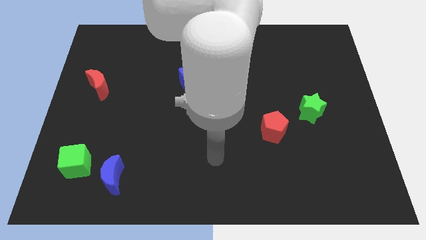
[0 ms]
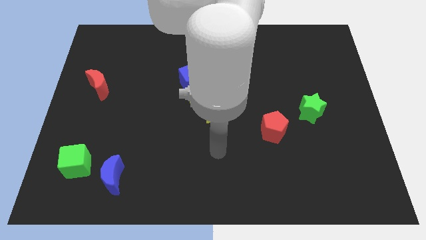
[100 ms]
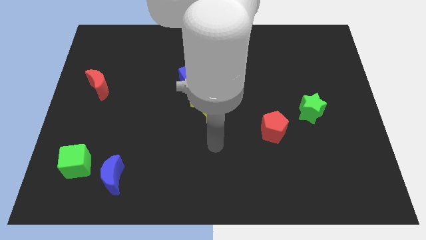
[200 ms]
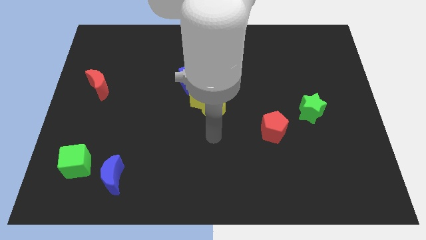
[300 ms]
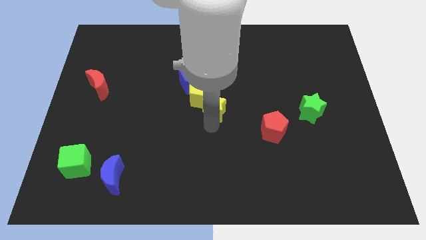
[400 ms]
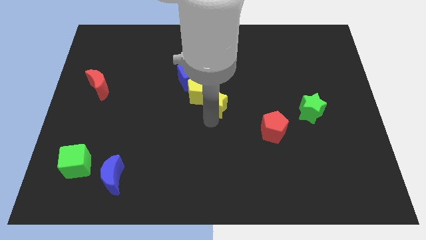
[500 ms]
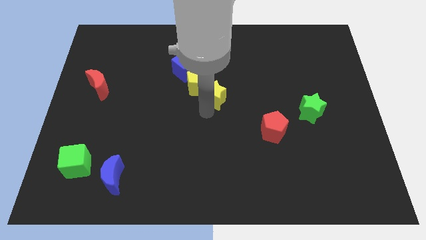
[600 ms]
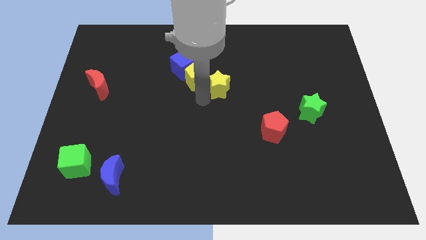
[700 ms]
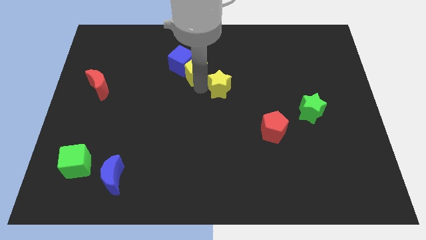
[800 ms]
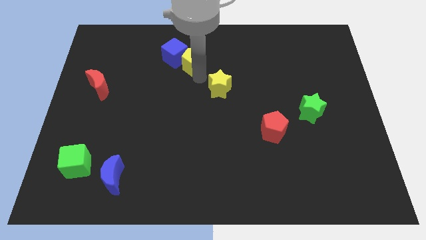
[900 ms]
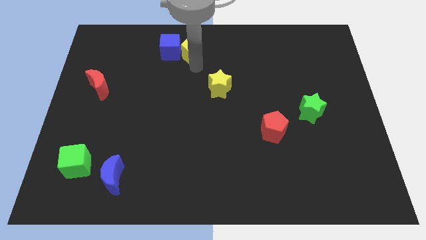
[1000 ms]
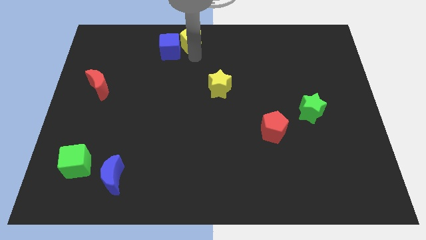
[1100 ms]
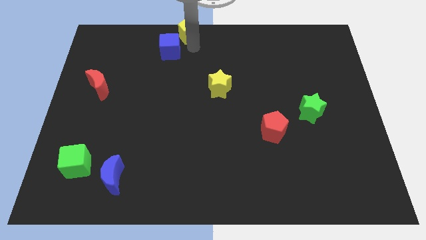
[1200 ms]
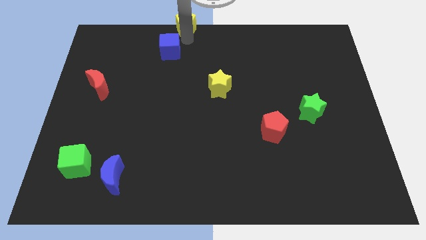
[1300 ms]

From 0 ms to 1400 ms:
pull the blue cube apart from the yellow pentagon

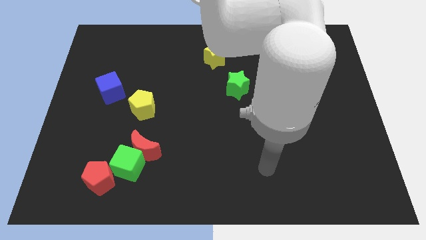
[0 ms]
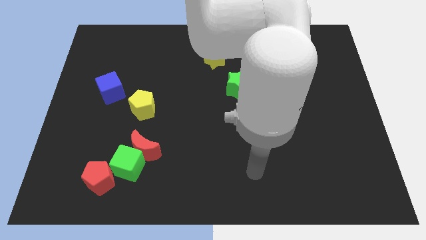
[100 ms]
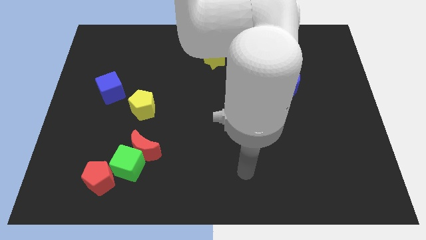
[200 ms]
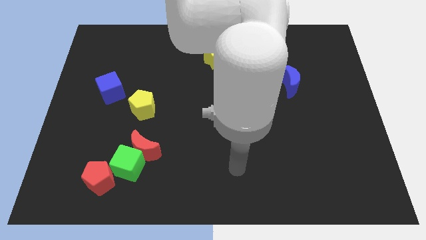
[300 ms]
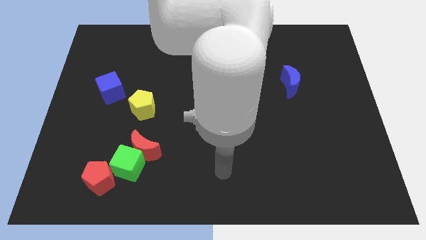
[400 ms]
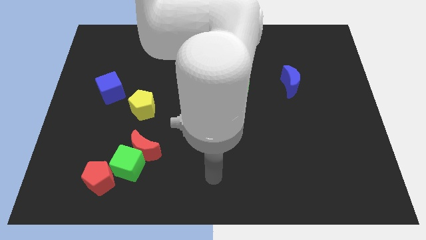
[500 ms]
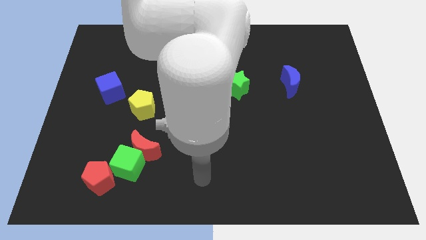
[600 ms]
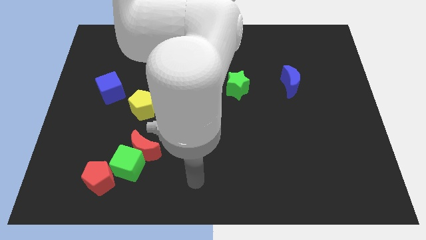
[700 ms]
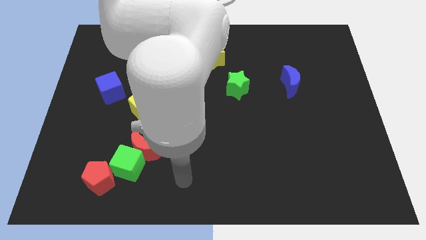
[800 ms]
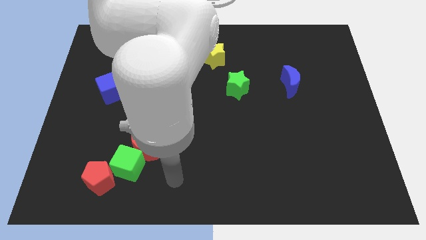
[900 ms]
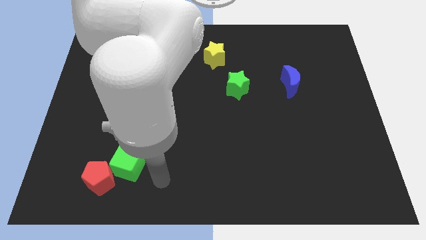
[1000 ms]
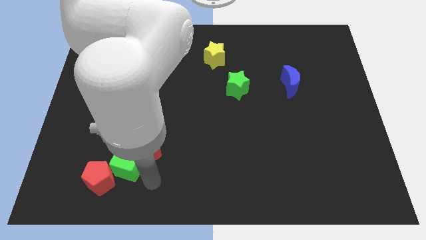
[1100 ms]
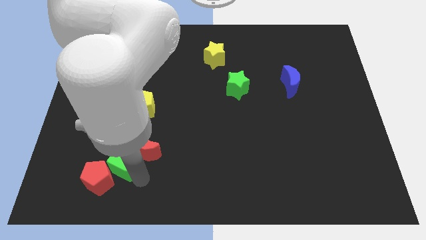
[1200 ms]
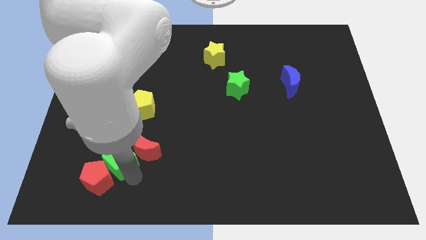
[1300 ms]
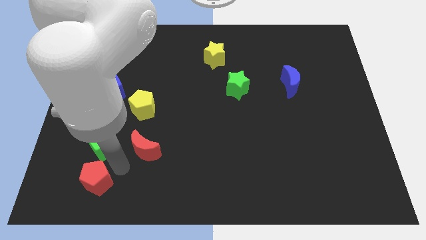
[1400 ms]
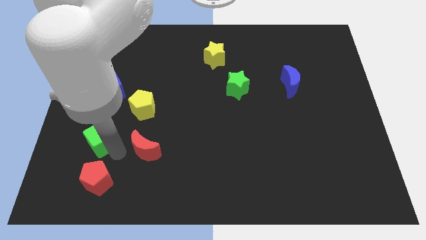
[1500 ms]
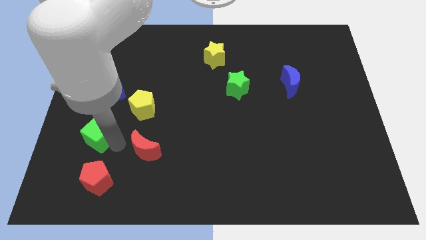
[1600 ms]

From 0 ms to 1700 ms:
separate the red moon from the green cube

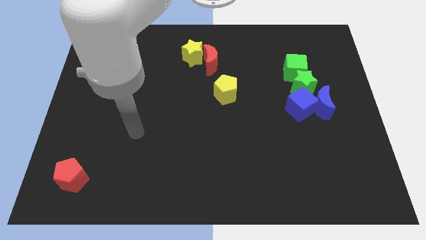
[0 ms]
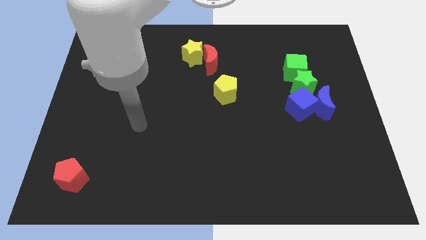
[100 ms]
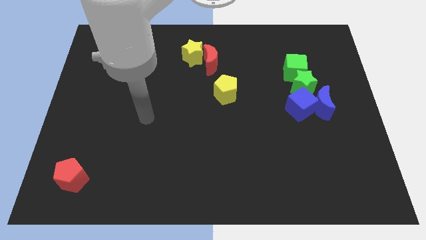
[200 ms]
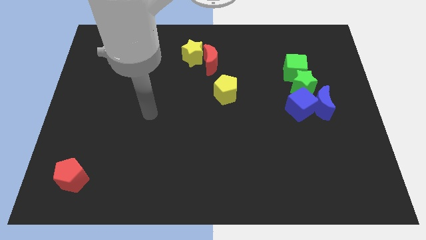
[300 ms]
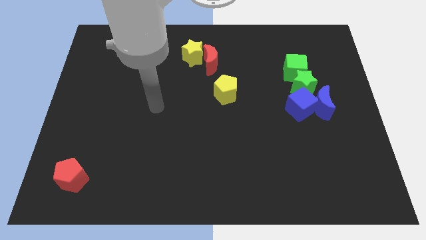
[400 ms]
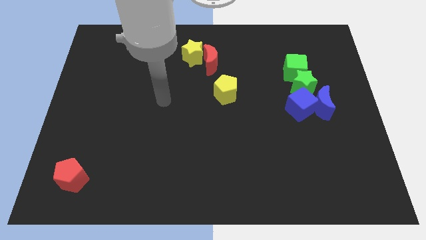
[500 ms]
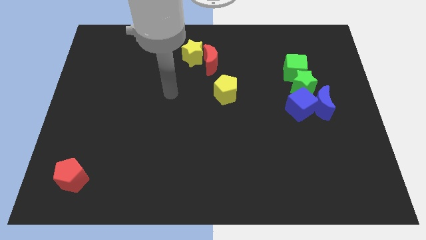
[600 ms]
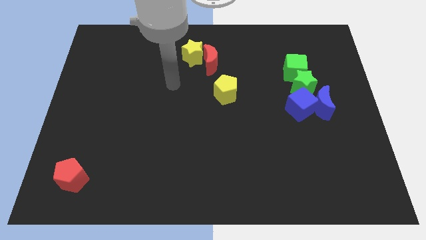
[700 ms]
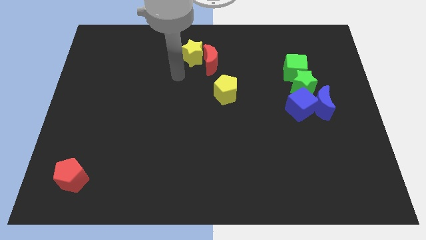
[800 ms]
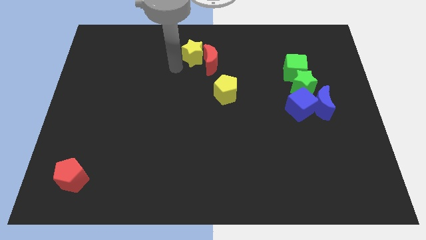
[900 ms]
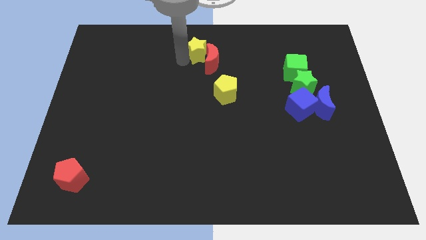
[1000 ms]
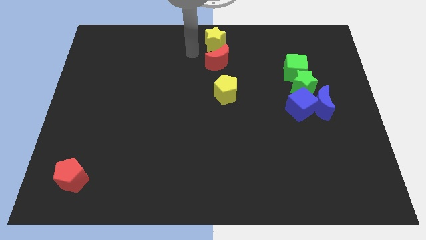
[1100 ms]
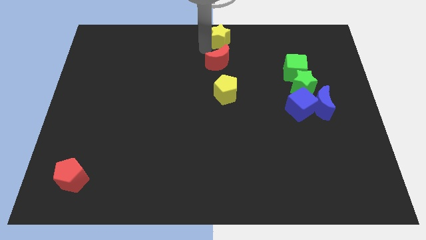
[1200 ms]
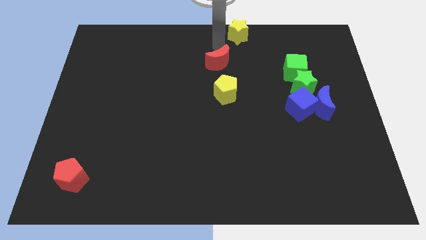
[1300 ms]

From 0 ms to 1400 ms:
move the red moon away from the yellow star

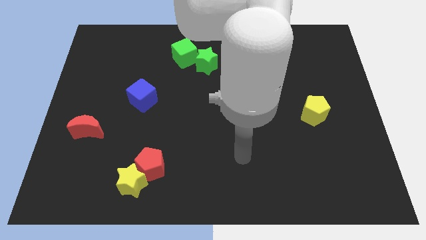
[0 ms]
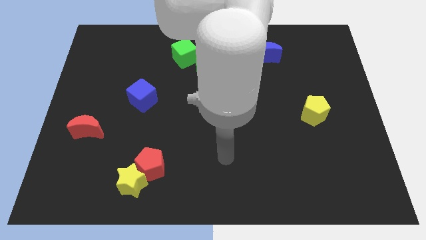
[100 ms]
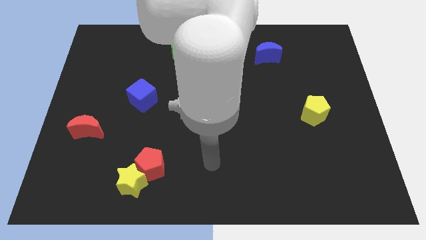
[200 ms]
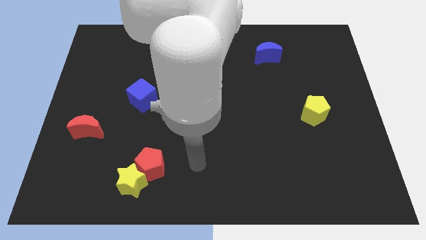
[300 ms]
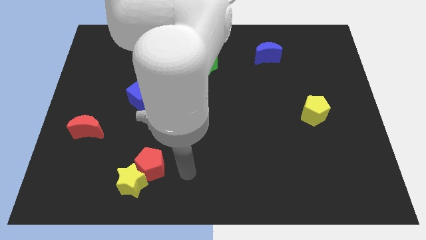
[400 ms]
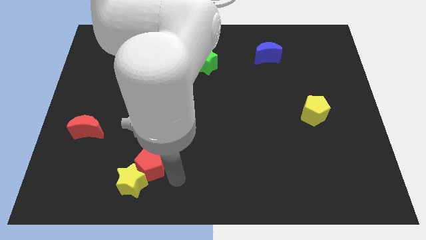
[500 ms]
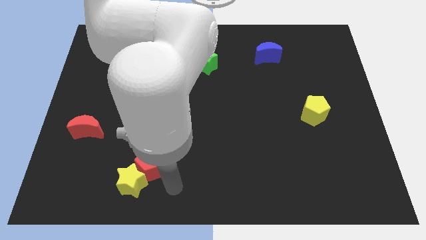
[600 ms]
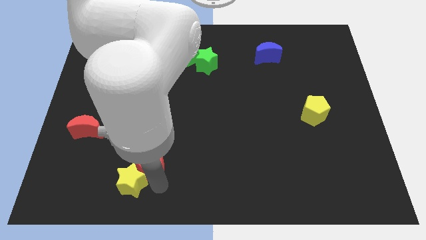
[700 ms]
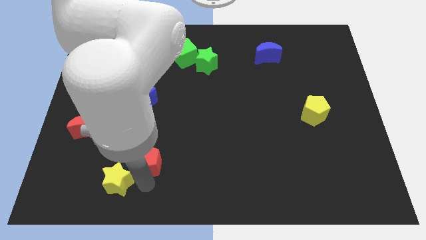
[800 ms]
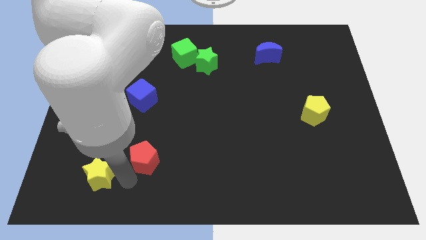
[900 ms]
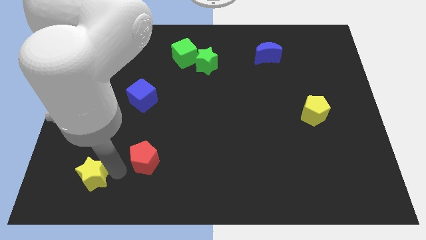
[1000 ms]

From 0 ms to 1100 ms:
separate the red pentagon from the yellow star

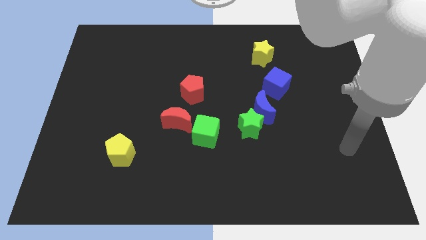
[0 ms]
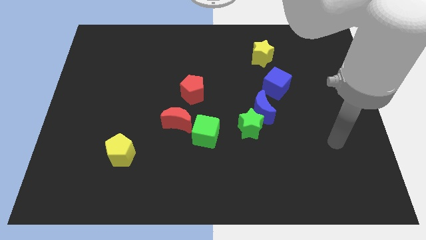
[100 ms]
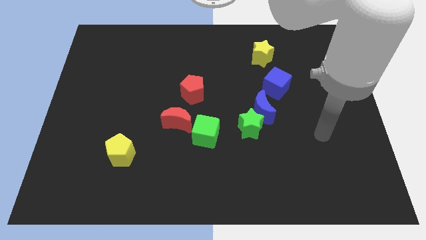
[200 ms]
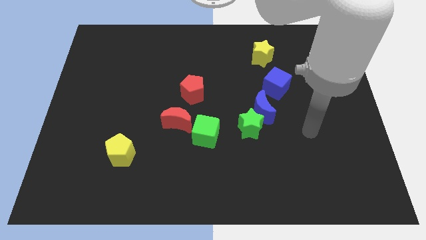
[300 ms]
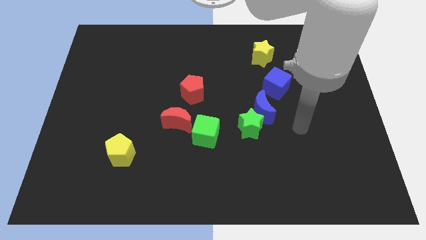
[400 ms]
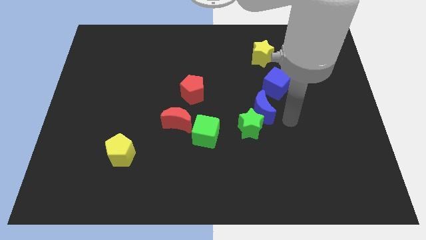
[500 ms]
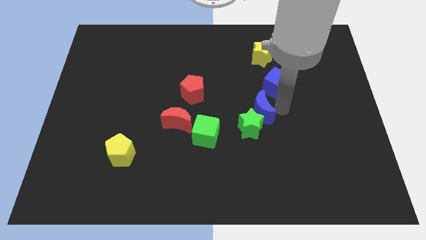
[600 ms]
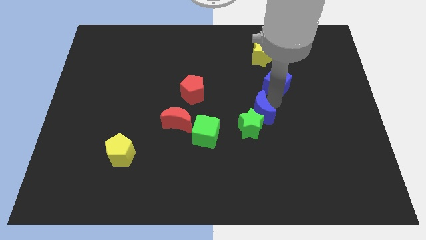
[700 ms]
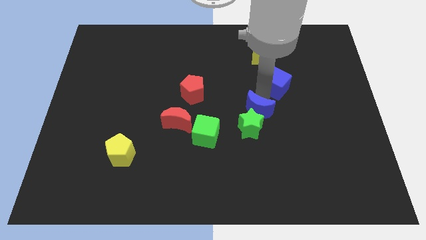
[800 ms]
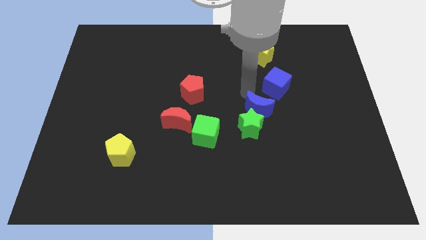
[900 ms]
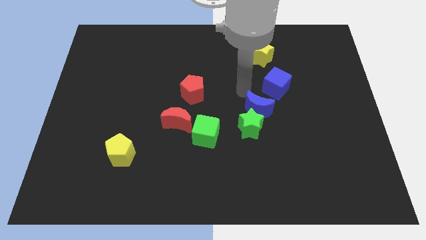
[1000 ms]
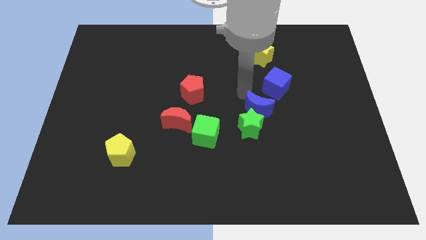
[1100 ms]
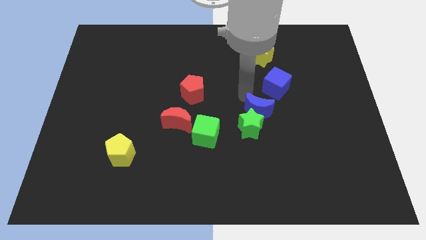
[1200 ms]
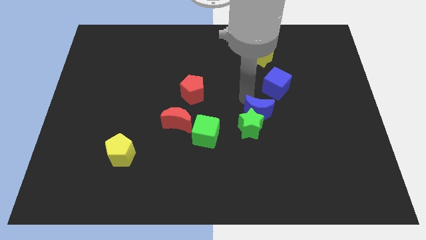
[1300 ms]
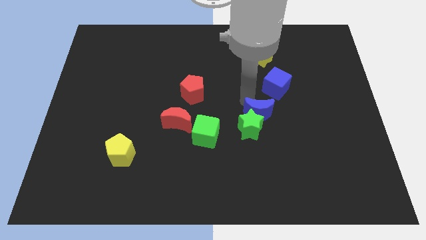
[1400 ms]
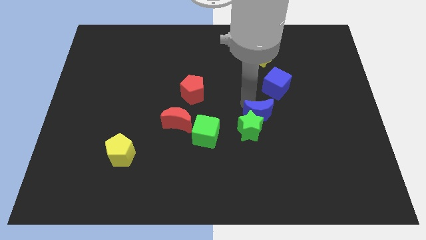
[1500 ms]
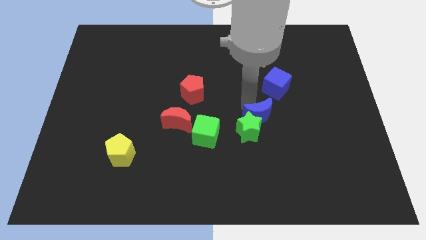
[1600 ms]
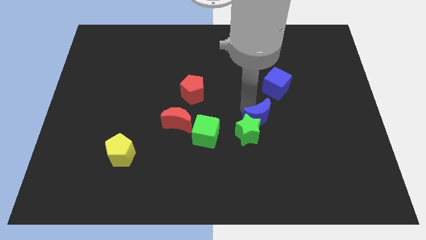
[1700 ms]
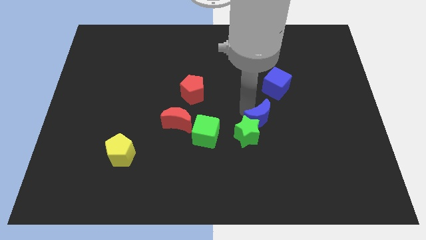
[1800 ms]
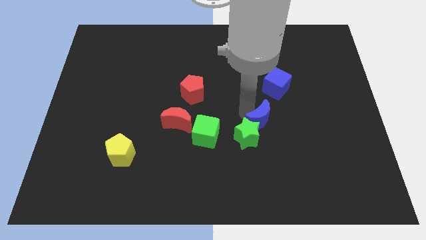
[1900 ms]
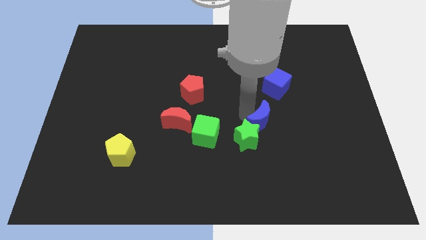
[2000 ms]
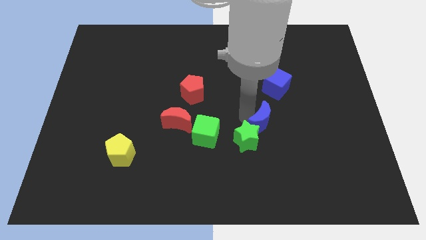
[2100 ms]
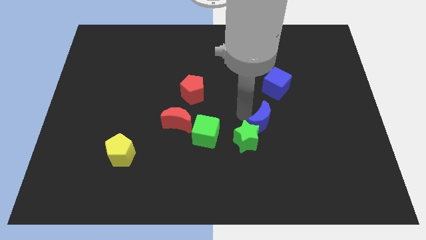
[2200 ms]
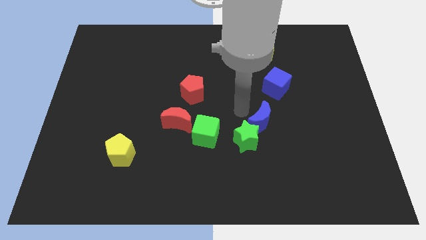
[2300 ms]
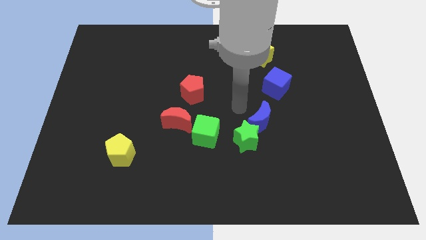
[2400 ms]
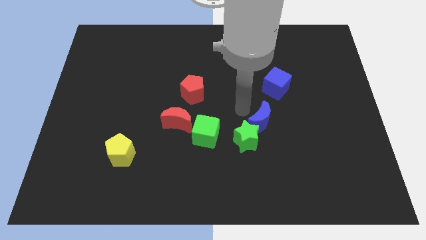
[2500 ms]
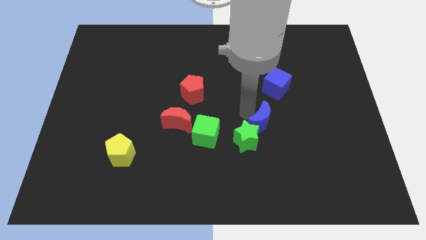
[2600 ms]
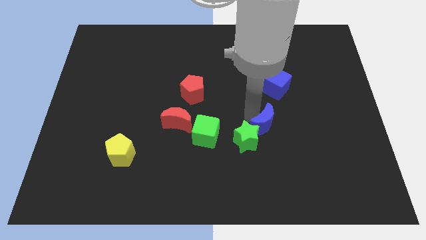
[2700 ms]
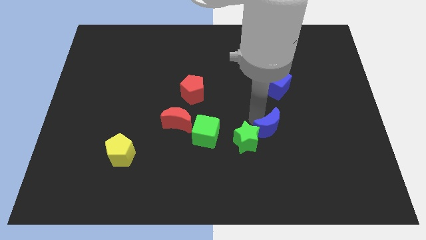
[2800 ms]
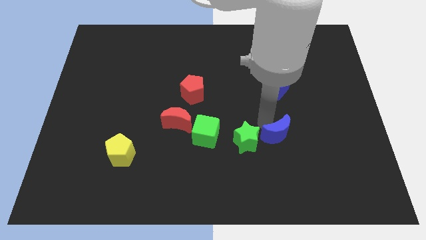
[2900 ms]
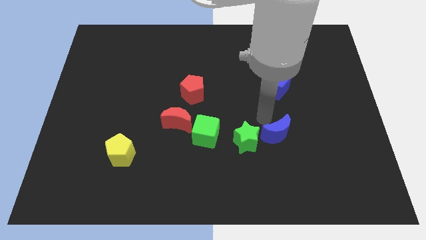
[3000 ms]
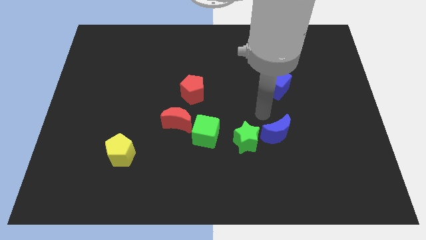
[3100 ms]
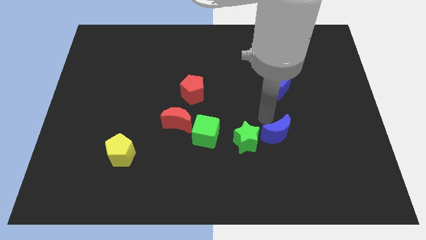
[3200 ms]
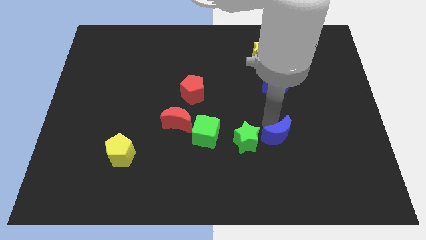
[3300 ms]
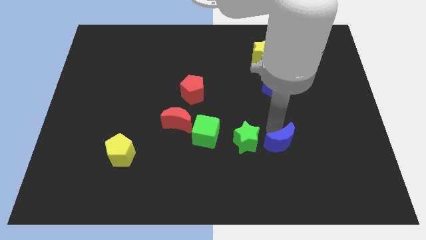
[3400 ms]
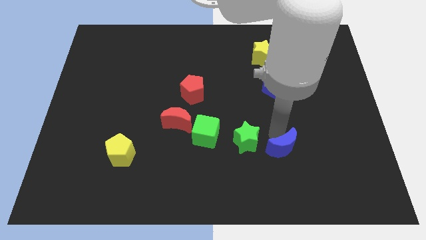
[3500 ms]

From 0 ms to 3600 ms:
pull the blue moon apart from the green star and blue cube
